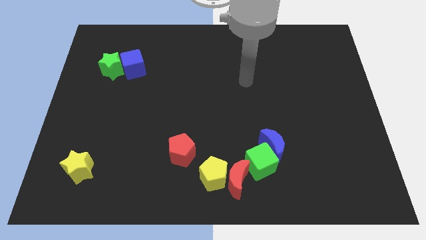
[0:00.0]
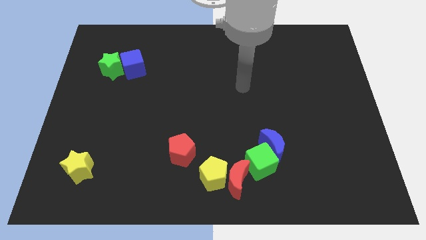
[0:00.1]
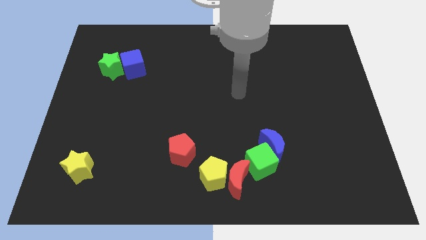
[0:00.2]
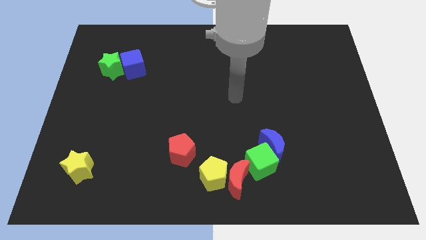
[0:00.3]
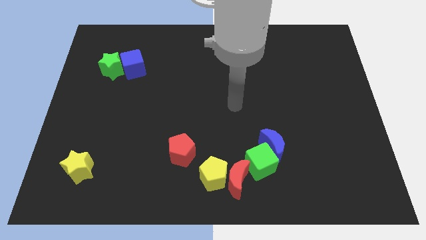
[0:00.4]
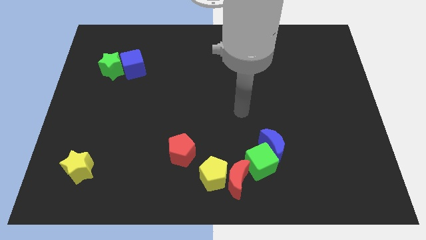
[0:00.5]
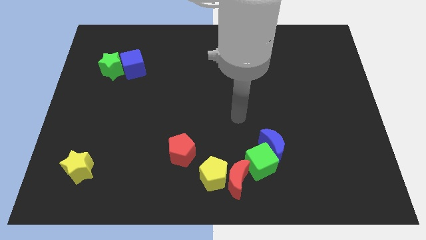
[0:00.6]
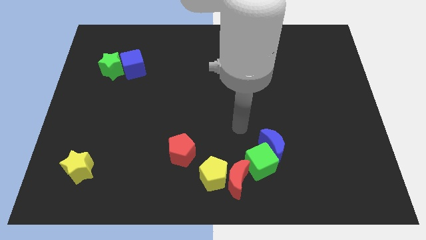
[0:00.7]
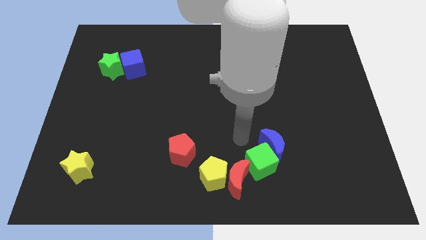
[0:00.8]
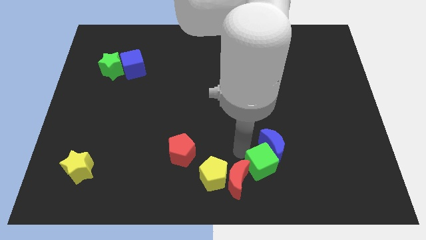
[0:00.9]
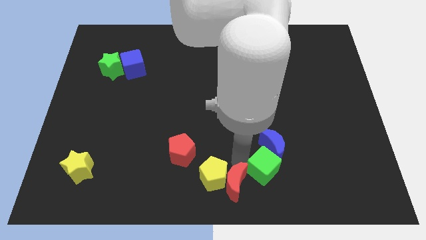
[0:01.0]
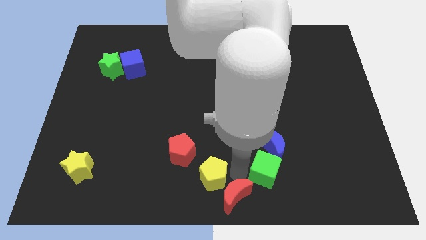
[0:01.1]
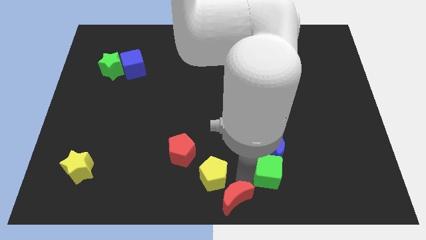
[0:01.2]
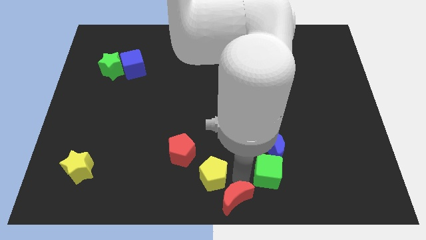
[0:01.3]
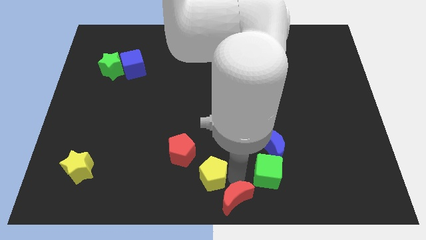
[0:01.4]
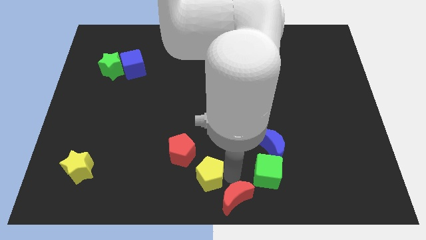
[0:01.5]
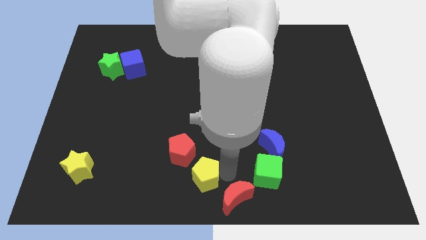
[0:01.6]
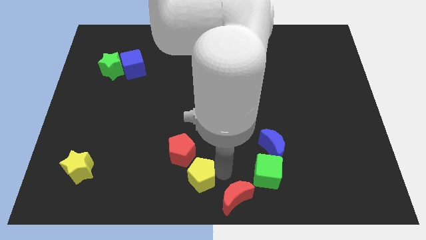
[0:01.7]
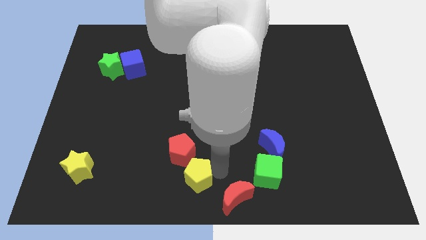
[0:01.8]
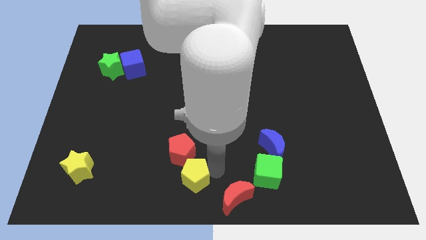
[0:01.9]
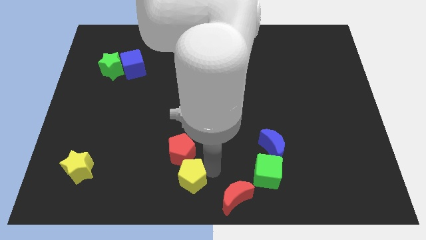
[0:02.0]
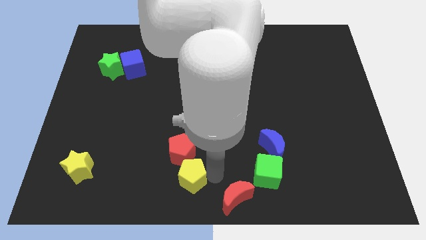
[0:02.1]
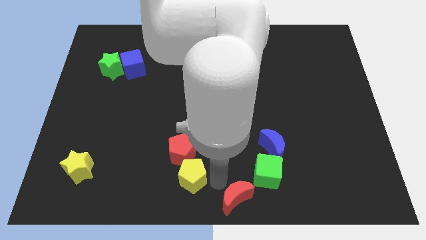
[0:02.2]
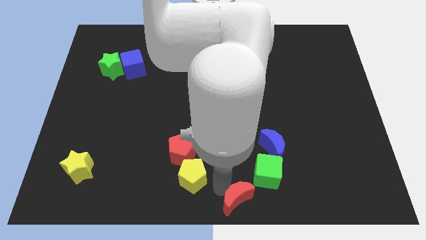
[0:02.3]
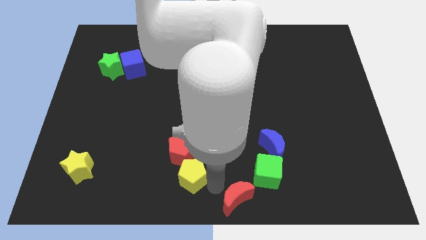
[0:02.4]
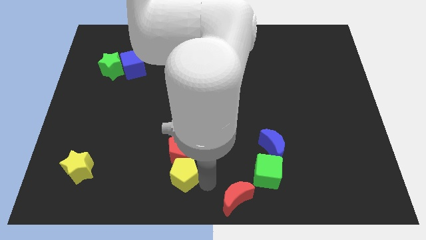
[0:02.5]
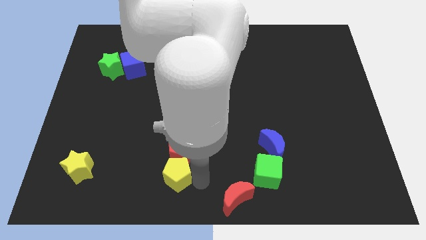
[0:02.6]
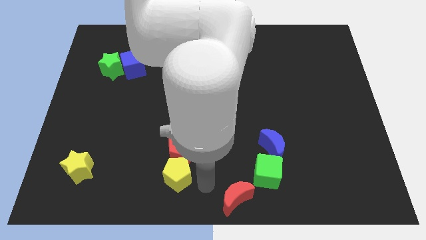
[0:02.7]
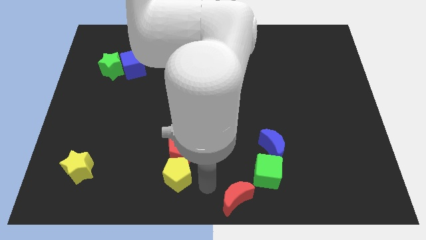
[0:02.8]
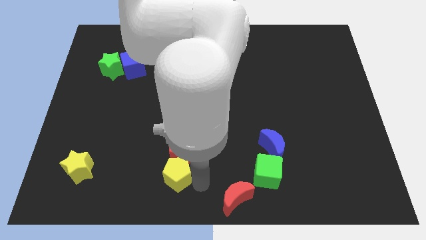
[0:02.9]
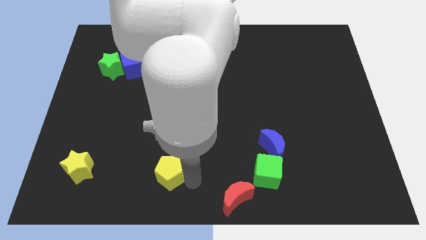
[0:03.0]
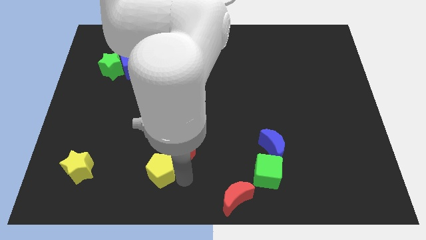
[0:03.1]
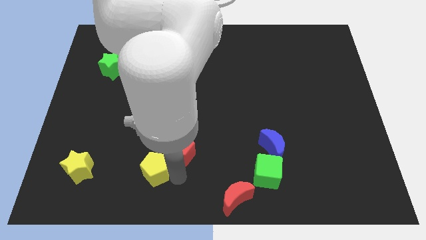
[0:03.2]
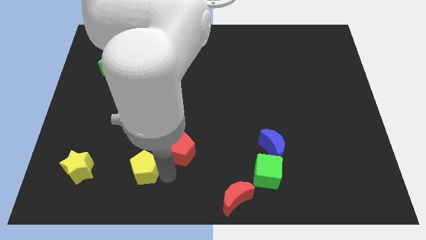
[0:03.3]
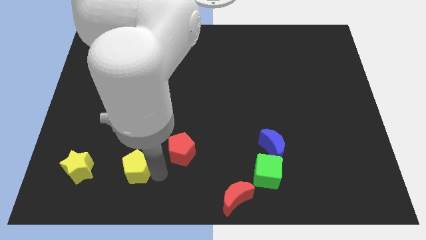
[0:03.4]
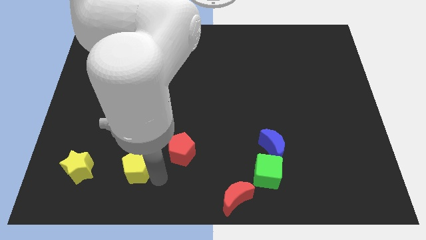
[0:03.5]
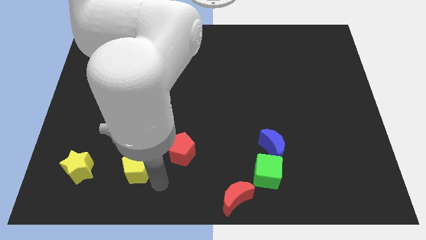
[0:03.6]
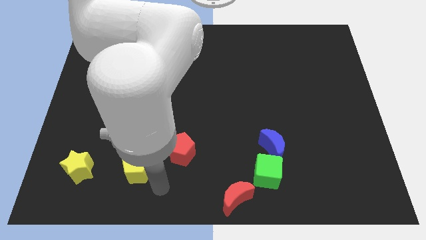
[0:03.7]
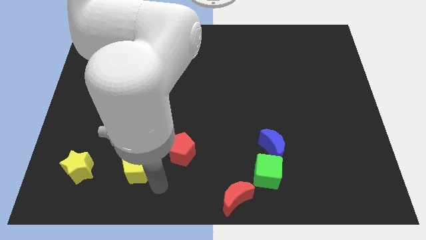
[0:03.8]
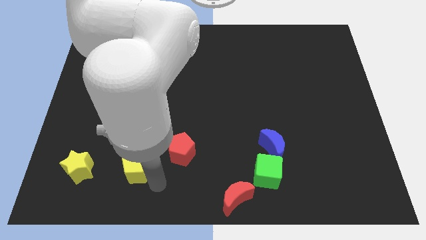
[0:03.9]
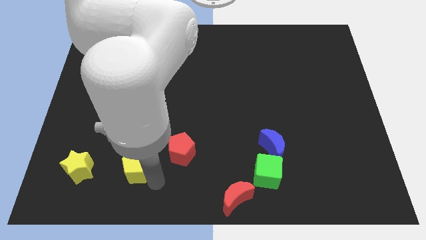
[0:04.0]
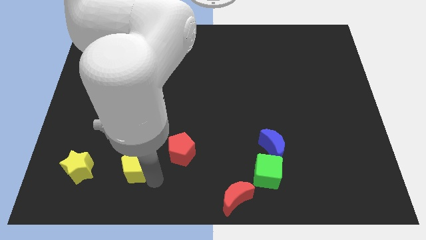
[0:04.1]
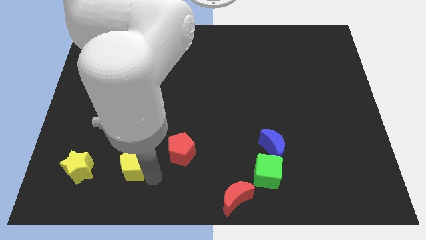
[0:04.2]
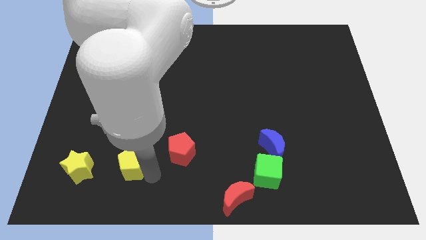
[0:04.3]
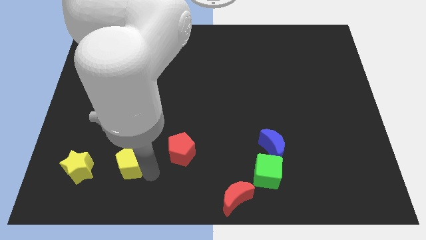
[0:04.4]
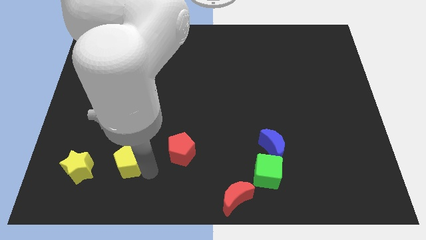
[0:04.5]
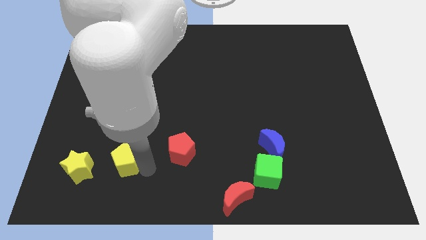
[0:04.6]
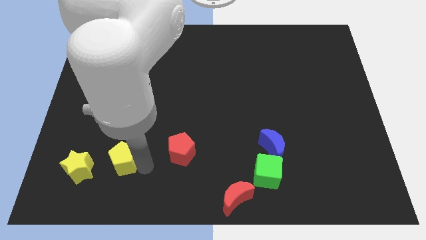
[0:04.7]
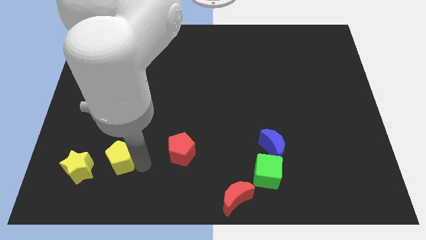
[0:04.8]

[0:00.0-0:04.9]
move the yellow pentagon to the top right of the yellow star

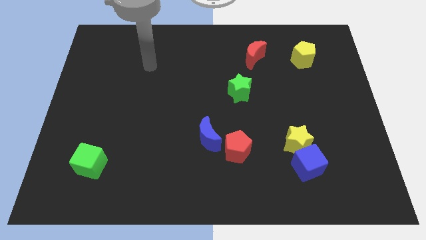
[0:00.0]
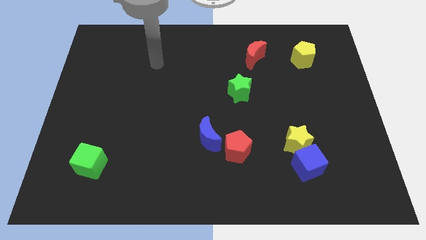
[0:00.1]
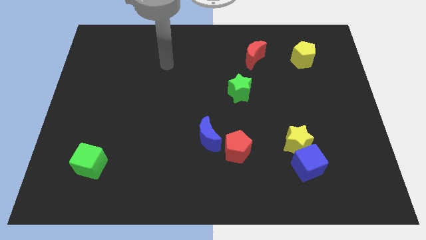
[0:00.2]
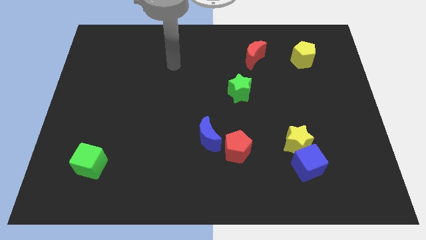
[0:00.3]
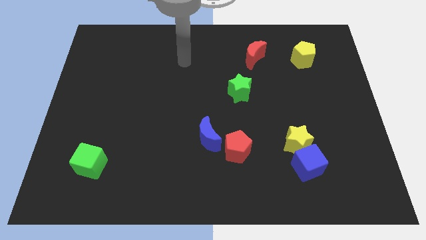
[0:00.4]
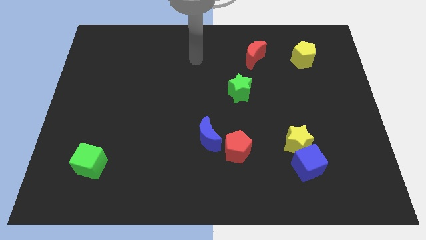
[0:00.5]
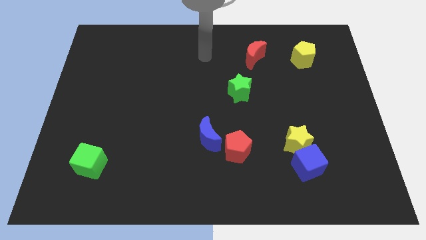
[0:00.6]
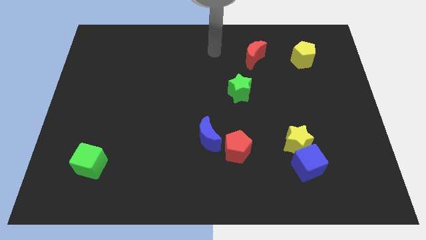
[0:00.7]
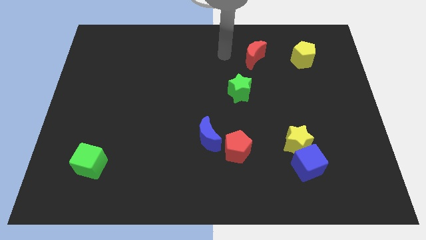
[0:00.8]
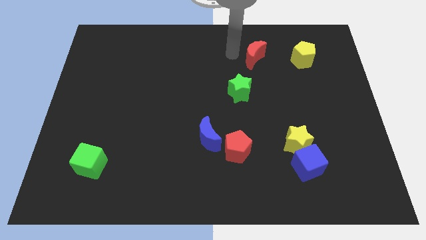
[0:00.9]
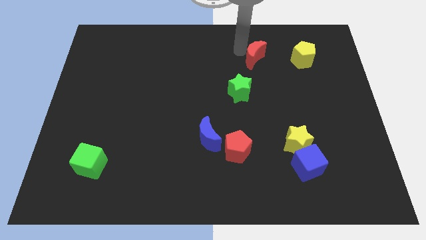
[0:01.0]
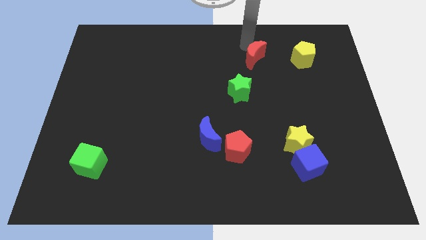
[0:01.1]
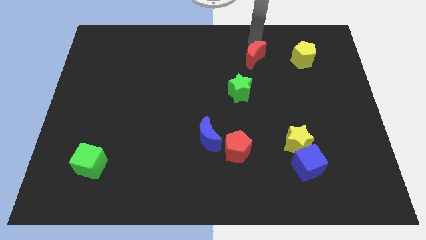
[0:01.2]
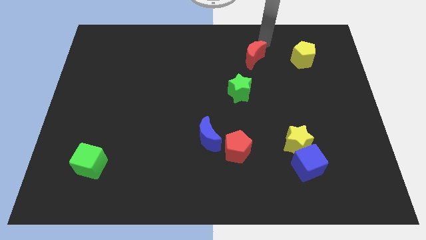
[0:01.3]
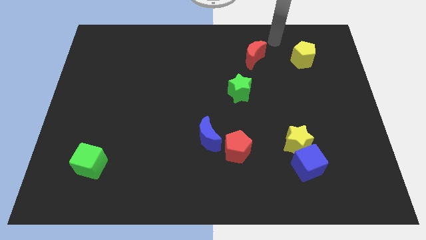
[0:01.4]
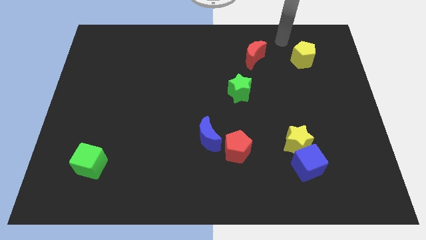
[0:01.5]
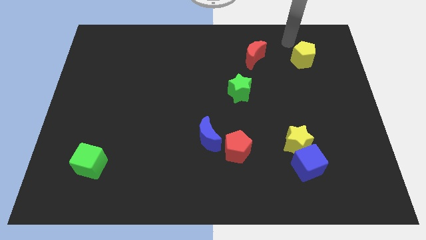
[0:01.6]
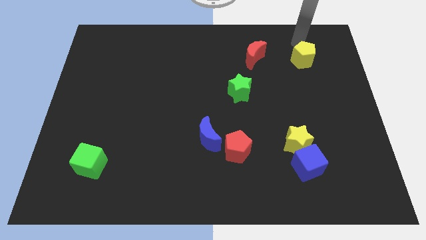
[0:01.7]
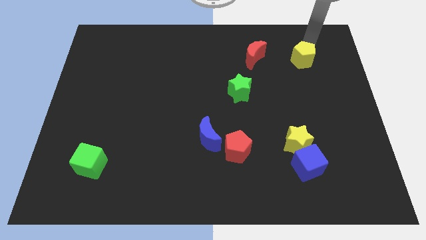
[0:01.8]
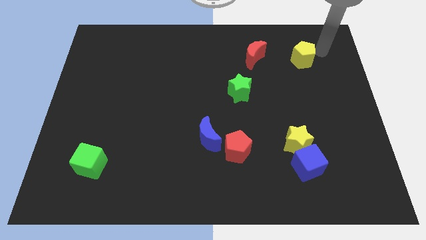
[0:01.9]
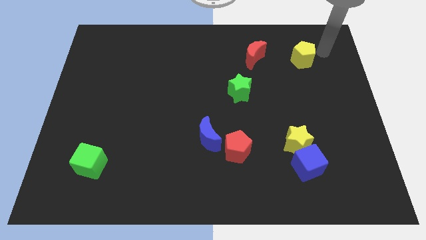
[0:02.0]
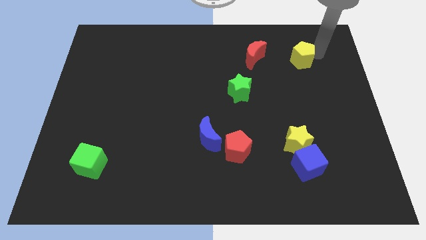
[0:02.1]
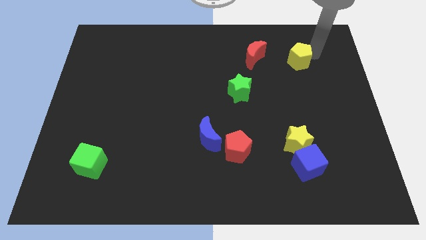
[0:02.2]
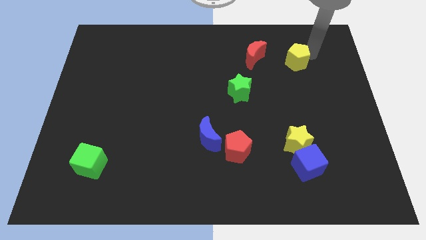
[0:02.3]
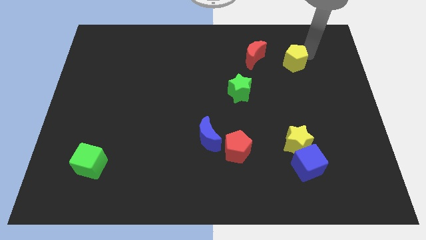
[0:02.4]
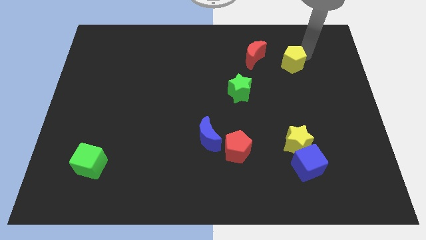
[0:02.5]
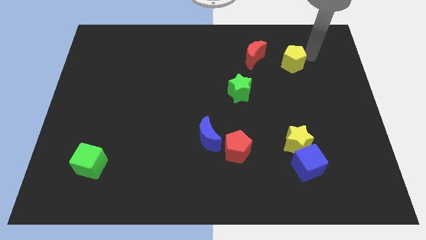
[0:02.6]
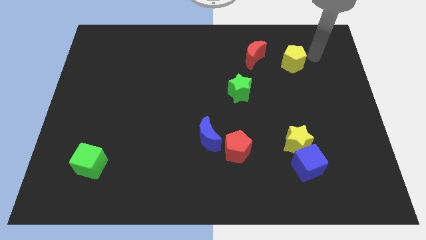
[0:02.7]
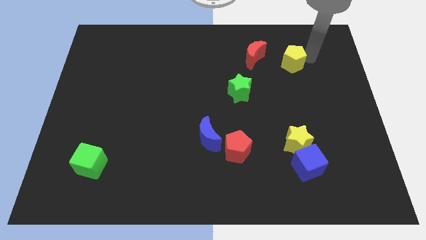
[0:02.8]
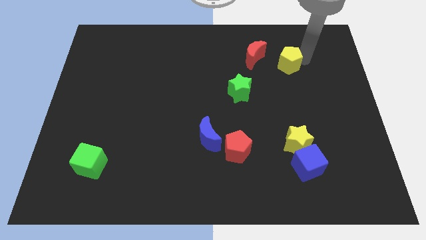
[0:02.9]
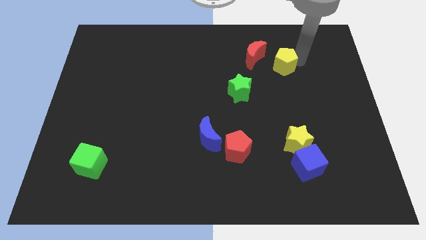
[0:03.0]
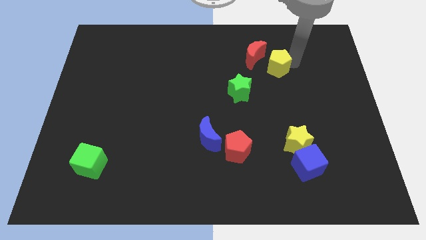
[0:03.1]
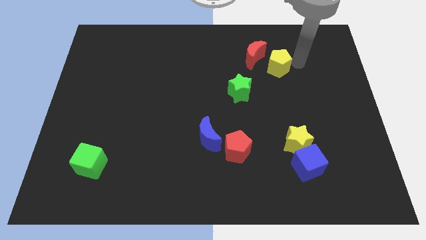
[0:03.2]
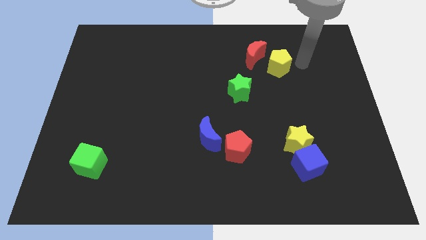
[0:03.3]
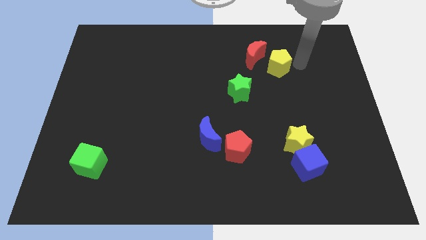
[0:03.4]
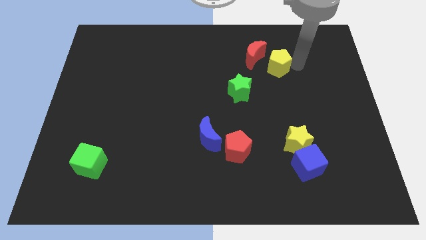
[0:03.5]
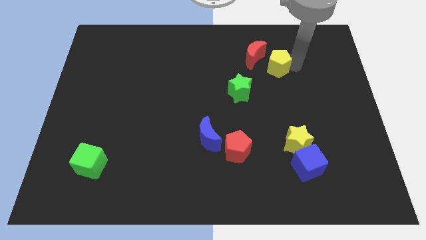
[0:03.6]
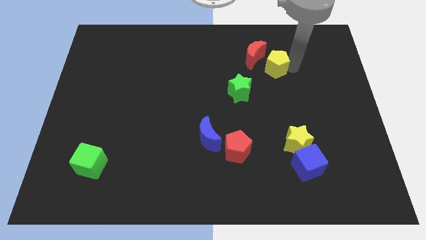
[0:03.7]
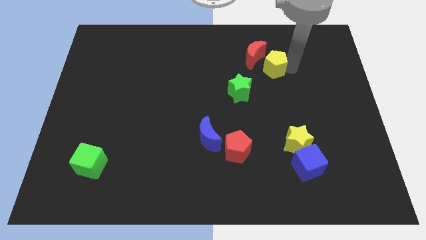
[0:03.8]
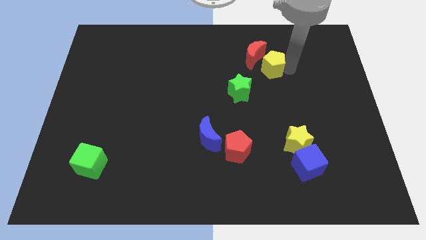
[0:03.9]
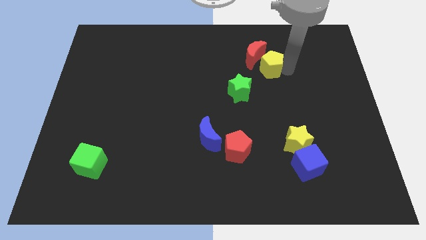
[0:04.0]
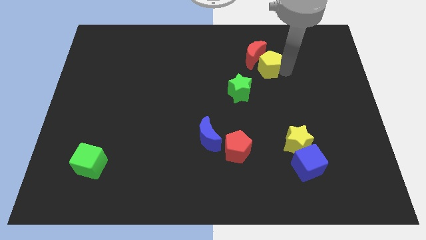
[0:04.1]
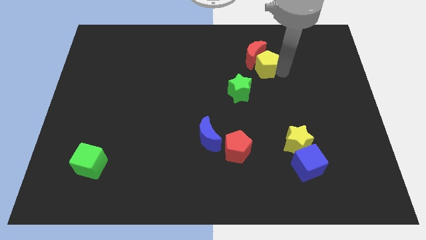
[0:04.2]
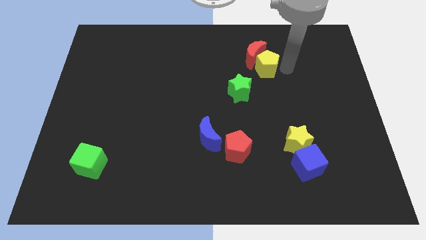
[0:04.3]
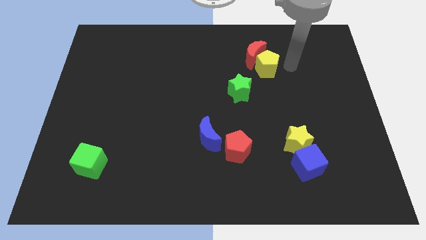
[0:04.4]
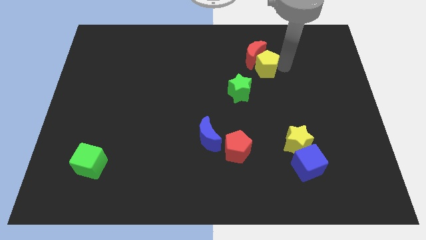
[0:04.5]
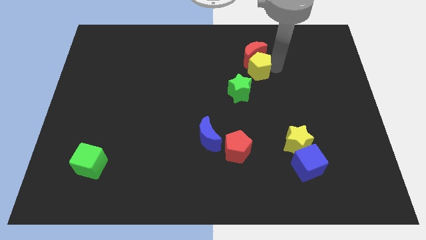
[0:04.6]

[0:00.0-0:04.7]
slide the yellow pentagon diagonally down and to the left of the red moon
